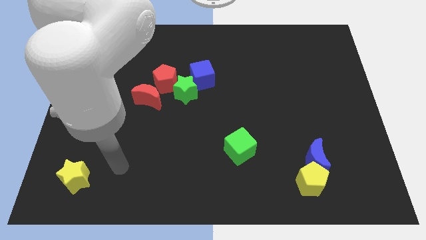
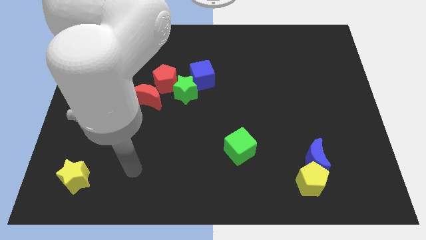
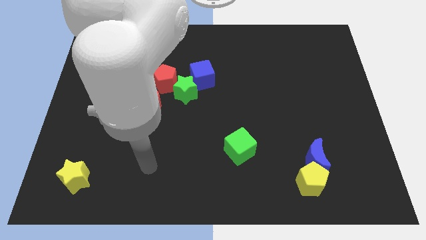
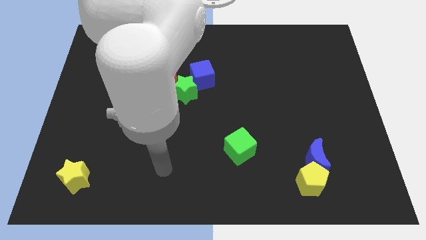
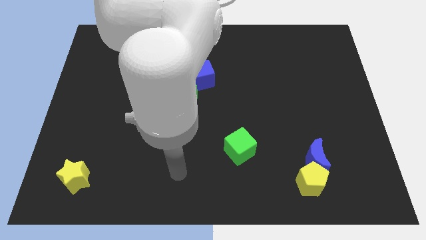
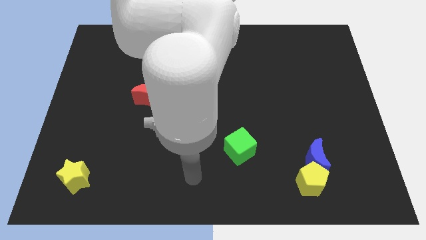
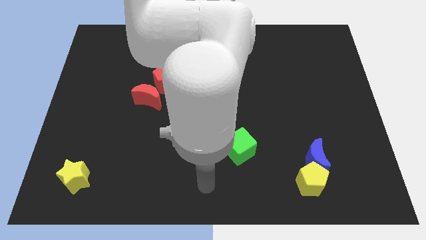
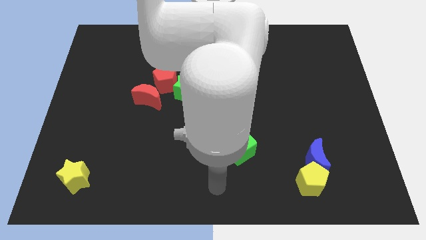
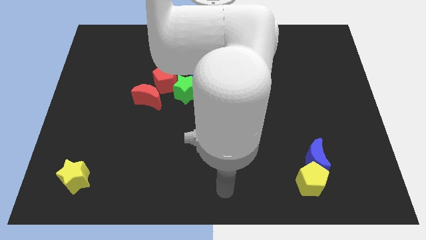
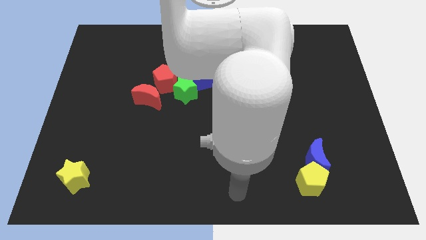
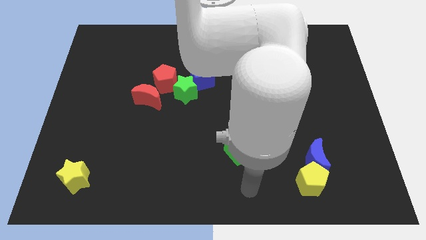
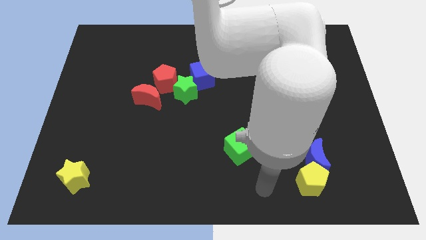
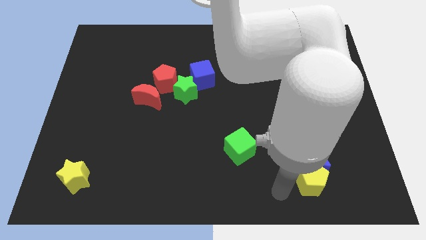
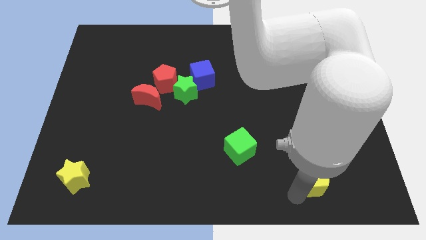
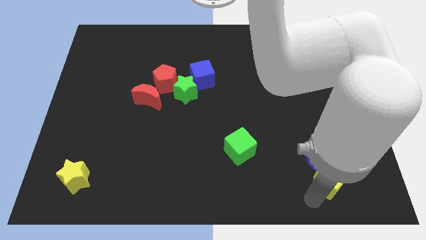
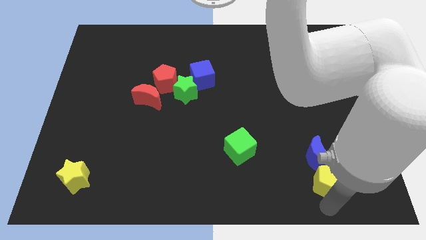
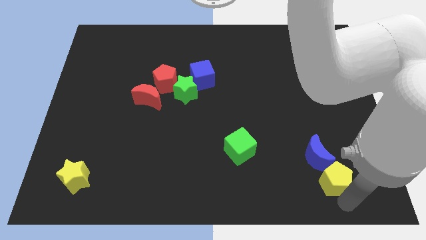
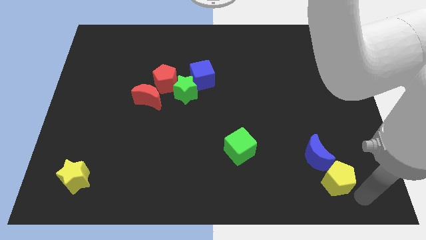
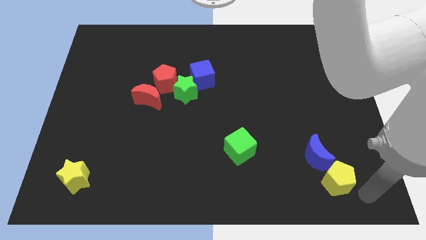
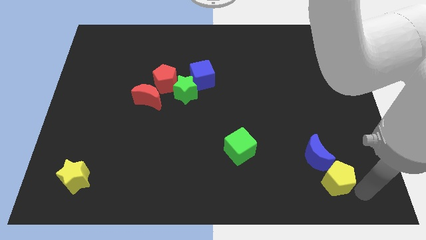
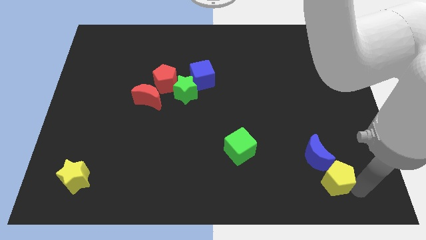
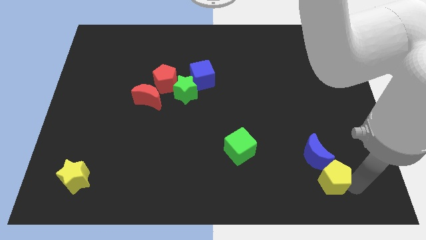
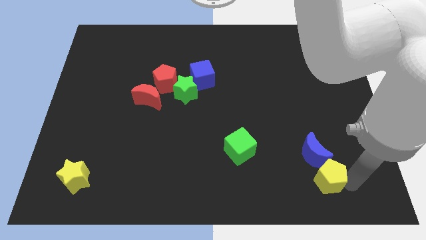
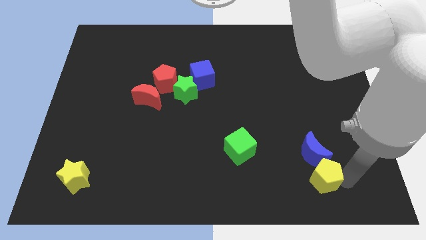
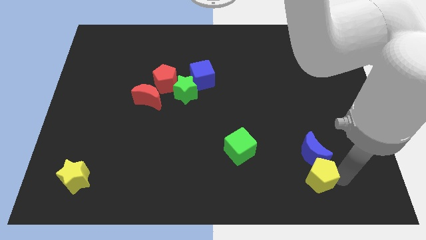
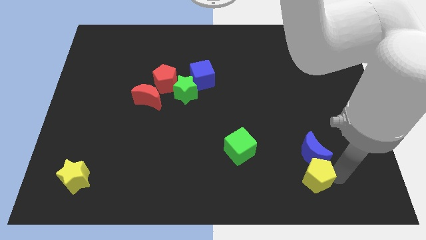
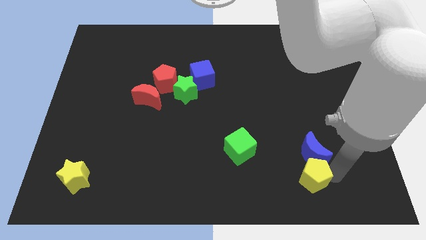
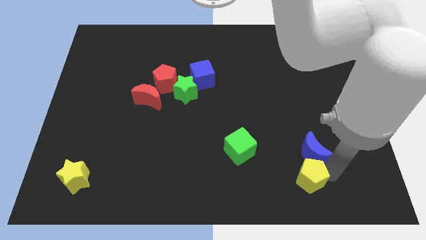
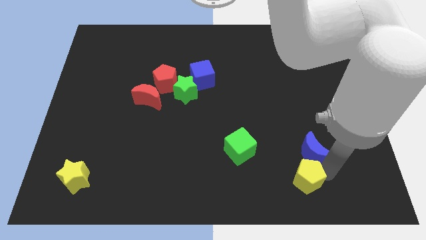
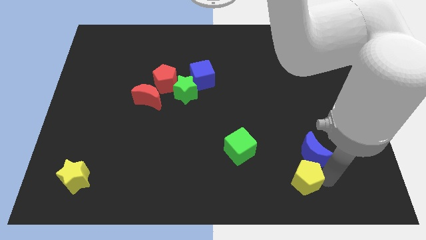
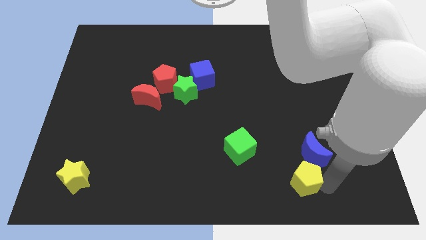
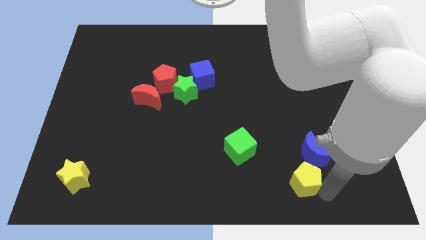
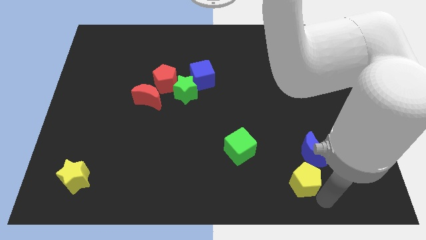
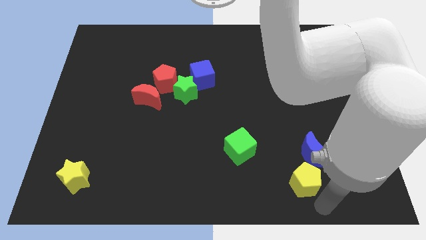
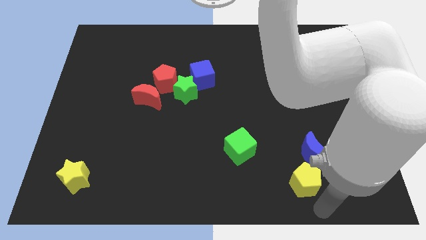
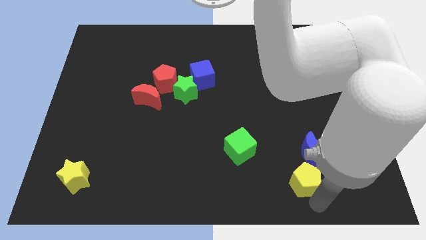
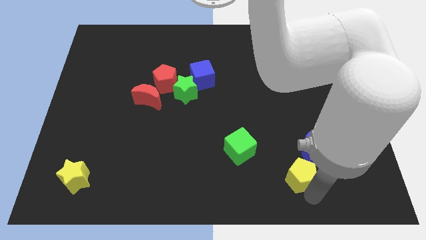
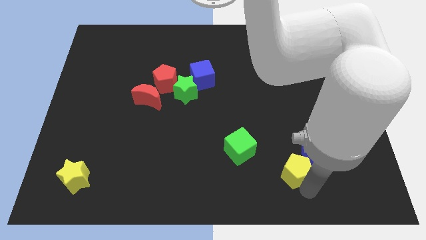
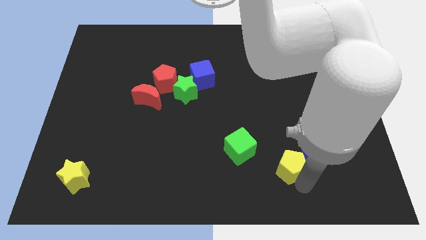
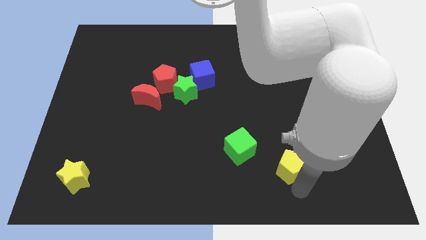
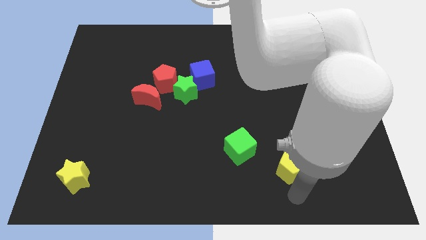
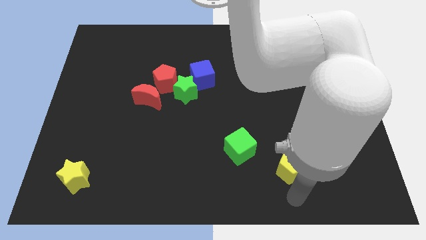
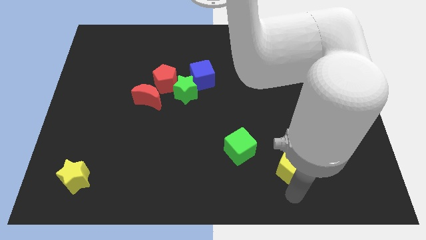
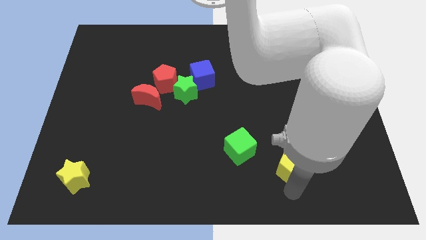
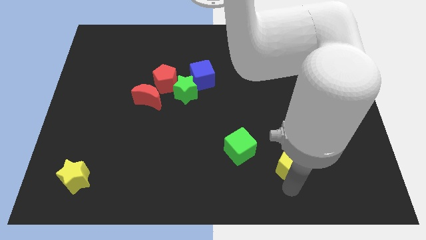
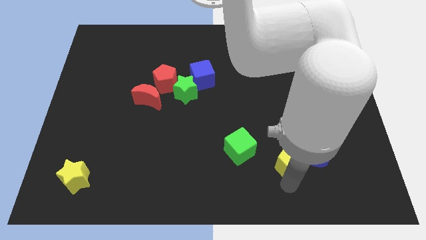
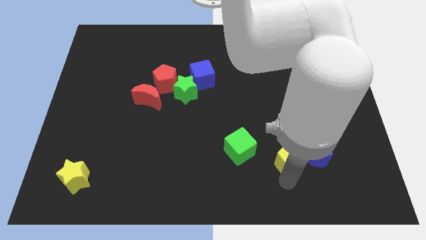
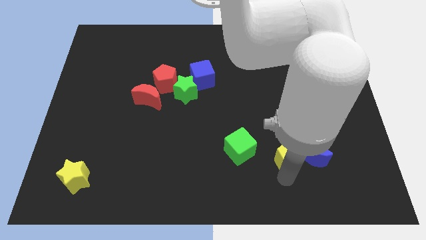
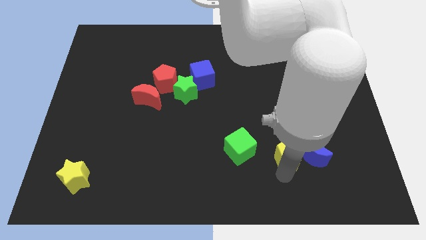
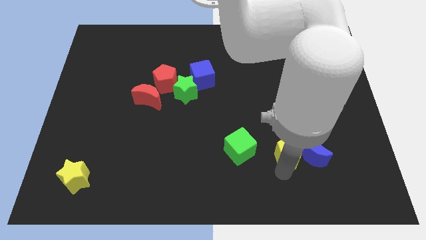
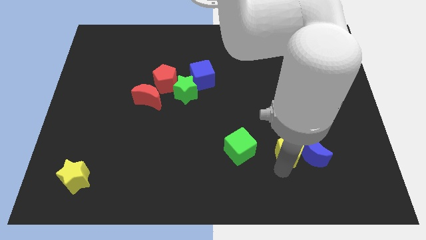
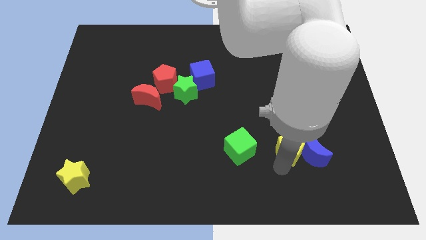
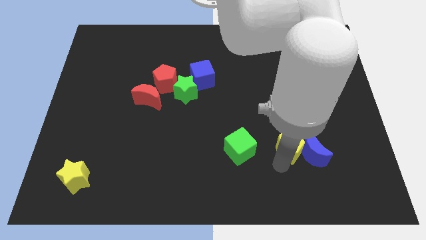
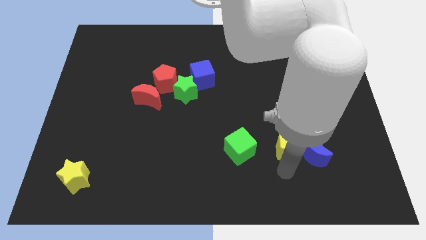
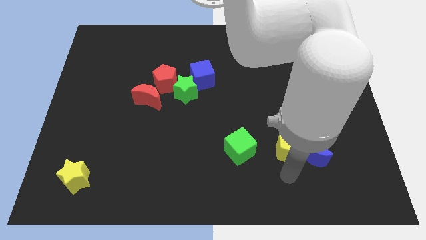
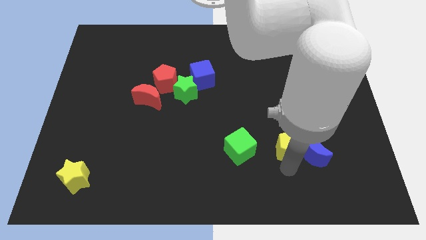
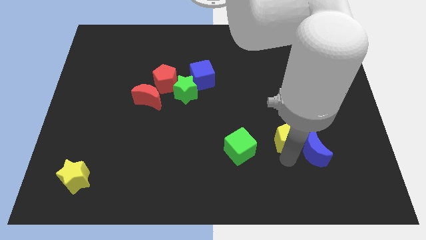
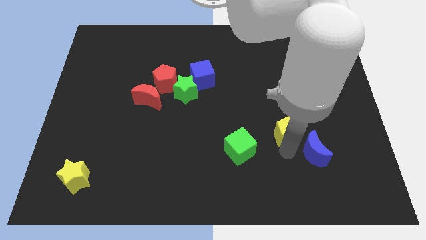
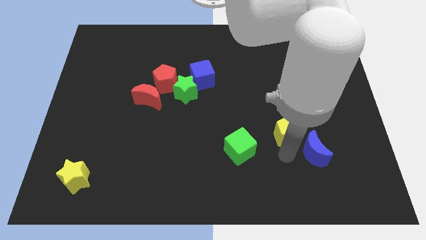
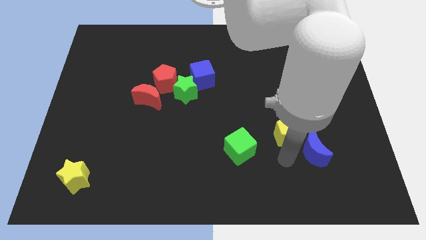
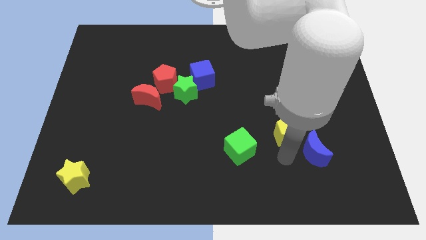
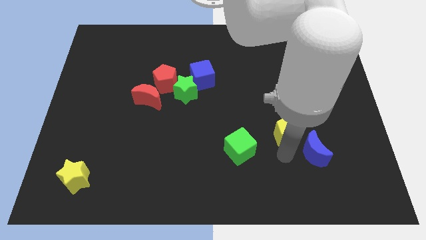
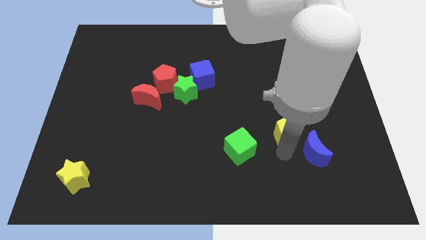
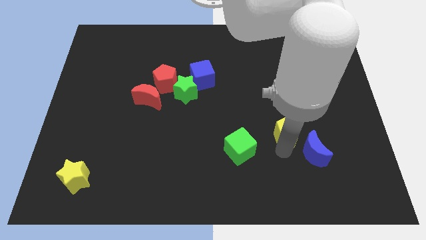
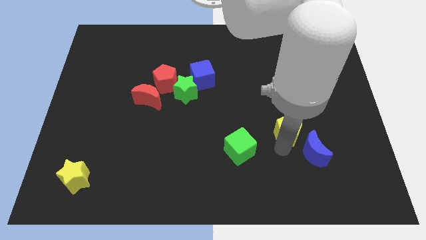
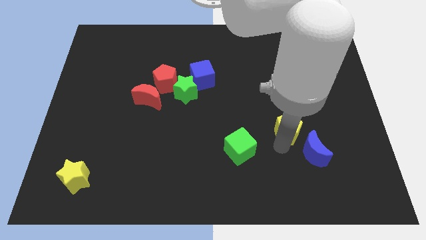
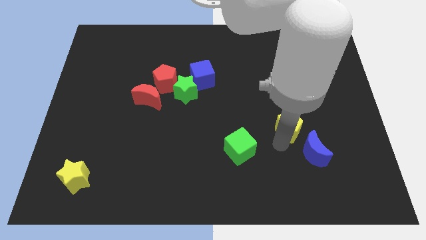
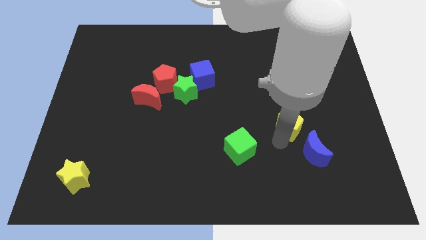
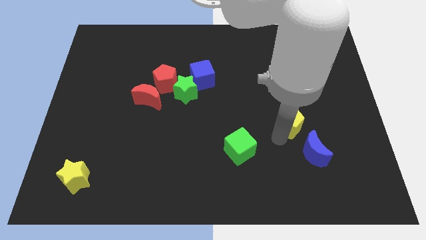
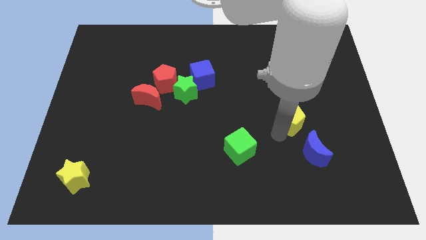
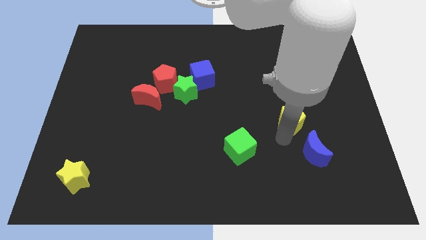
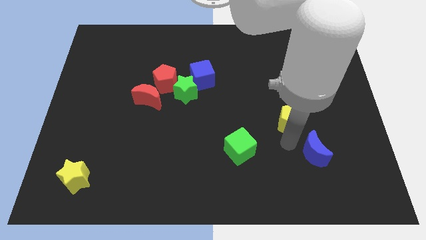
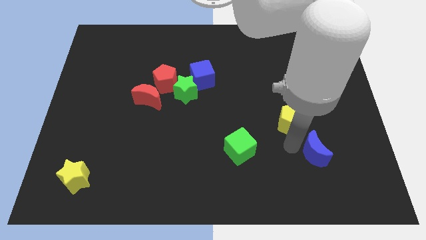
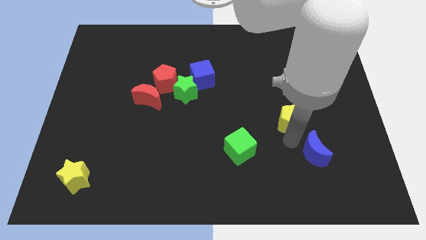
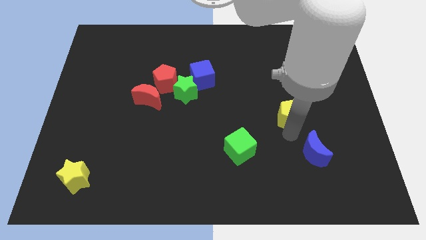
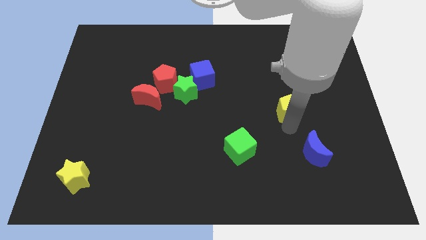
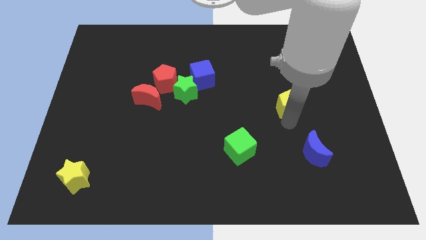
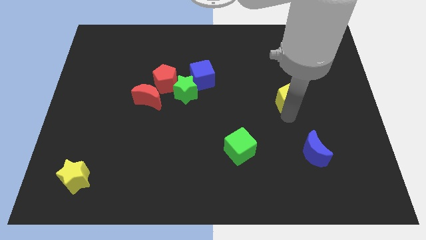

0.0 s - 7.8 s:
push the yellow pentagon upwards

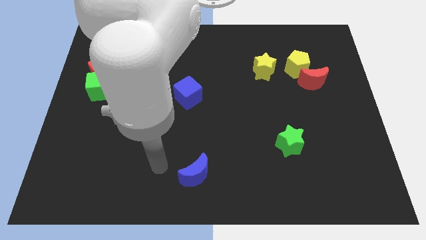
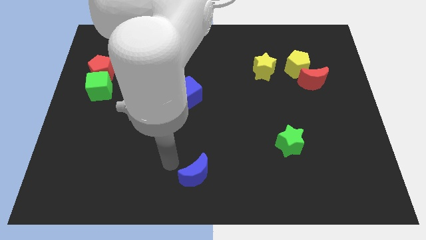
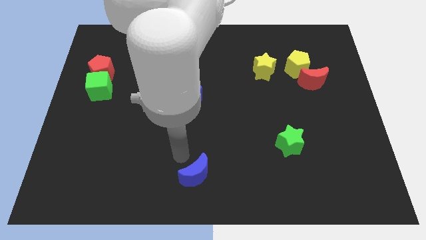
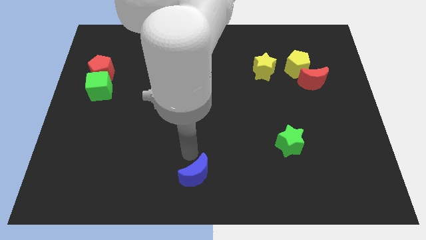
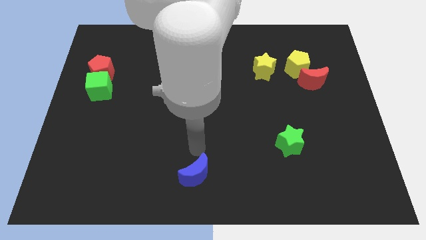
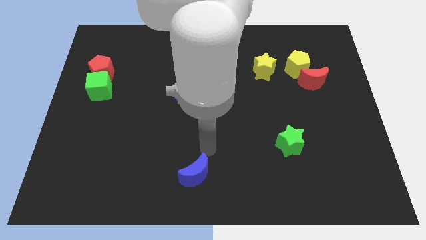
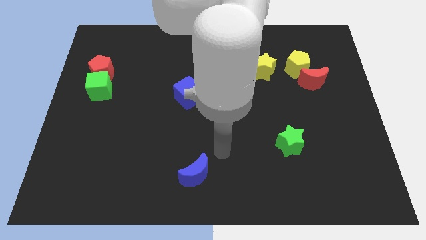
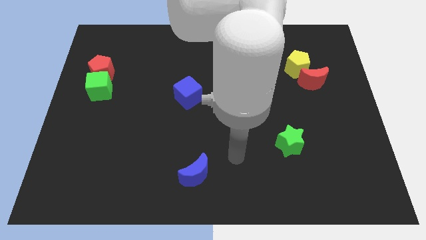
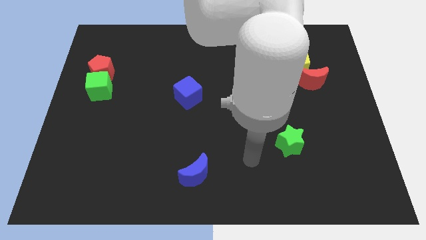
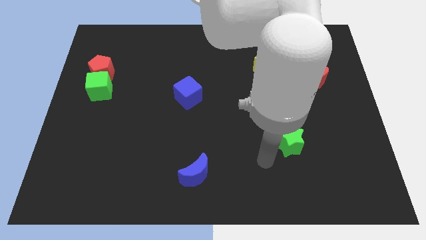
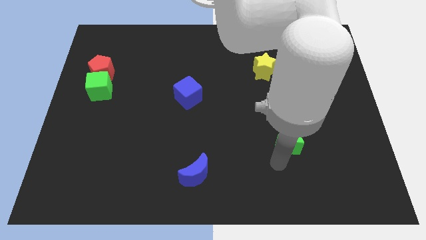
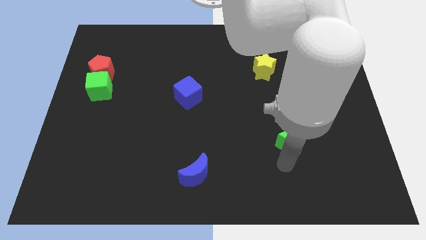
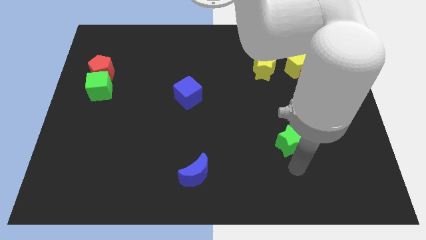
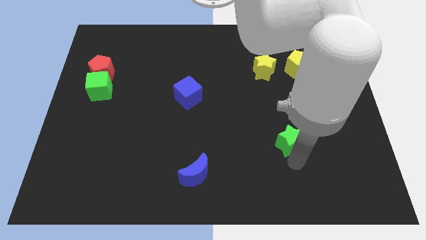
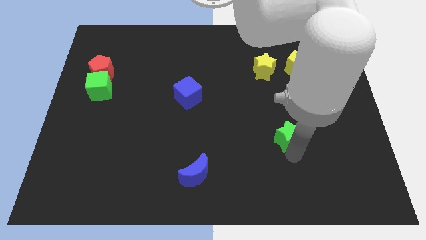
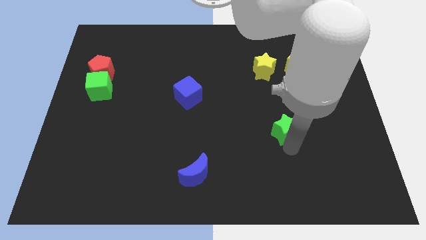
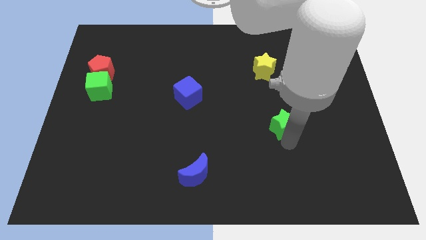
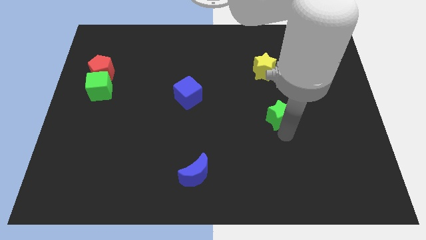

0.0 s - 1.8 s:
push the green star up somewhat
